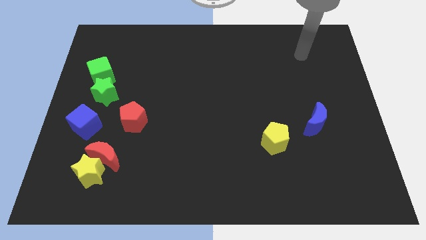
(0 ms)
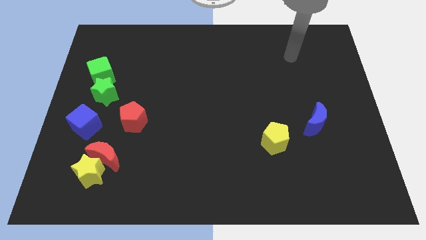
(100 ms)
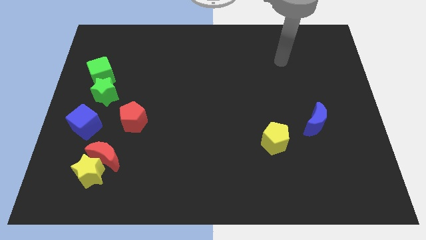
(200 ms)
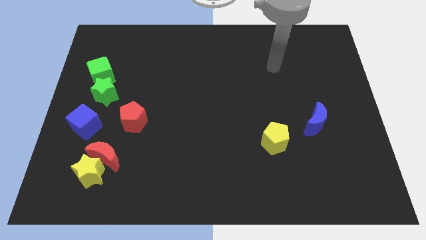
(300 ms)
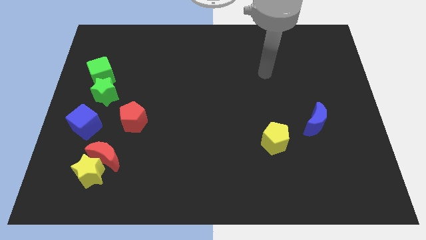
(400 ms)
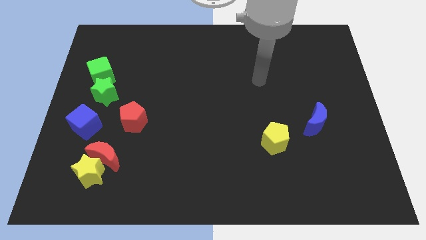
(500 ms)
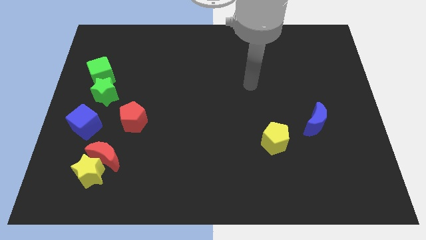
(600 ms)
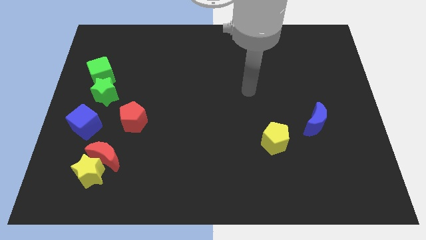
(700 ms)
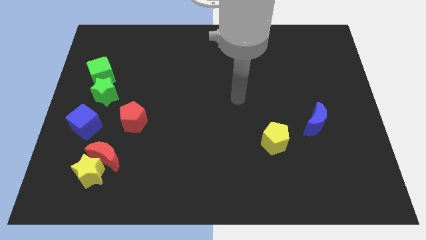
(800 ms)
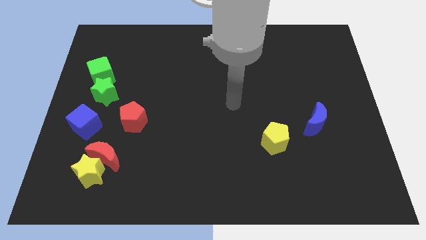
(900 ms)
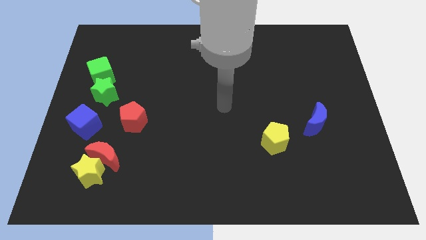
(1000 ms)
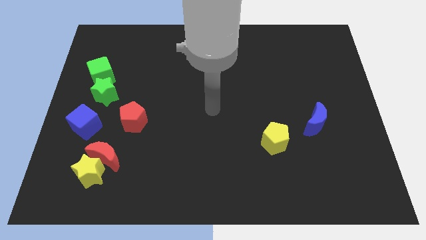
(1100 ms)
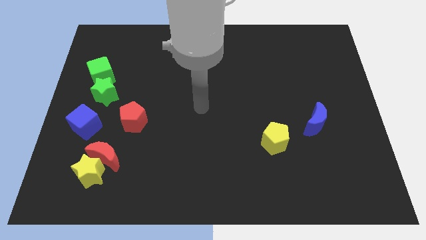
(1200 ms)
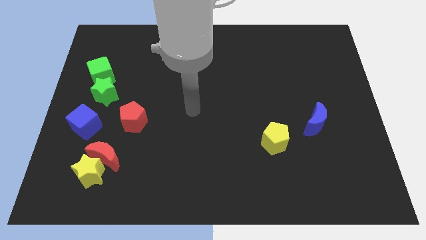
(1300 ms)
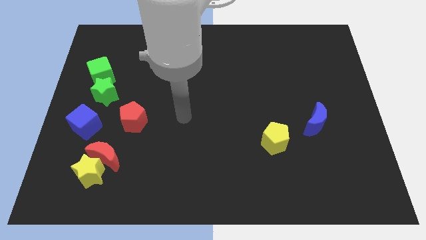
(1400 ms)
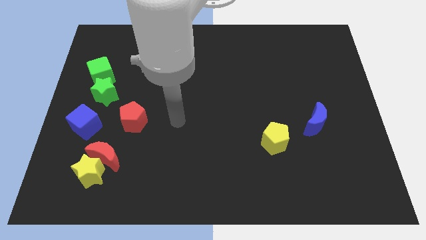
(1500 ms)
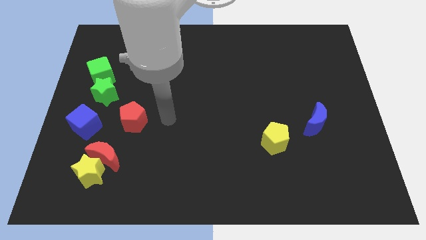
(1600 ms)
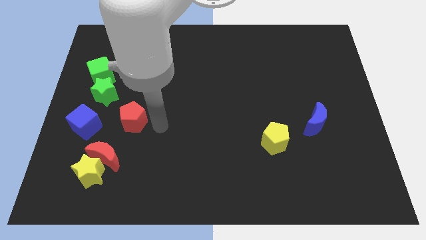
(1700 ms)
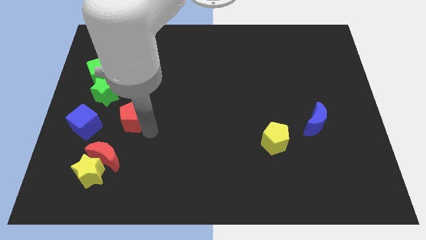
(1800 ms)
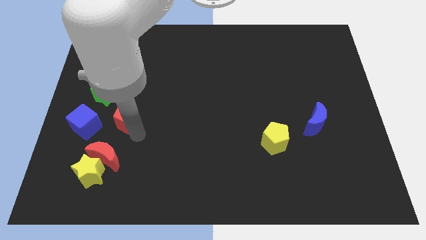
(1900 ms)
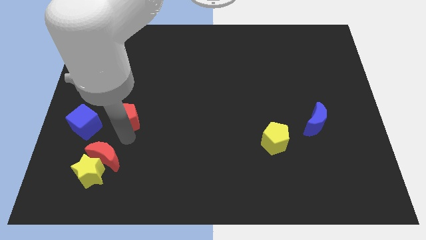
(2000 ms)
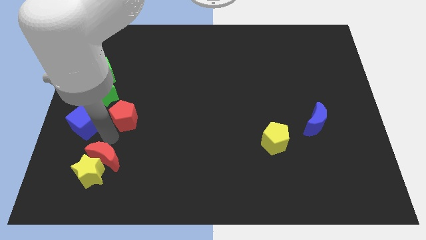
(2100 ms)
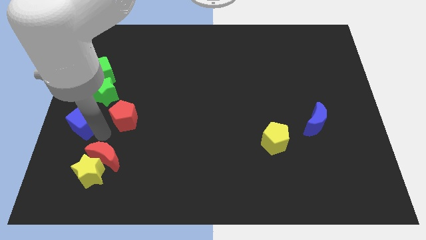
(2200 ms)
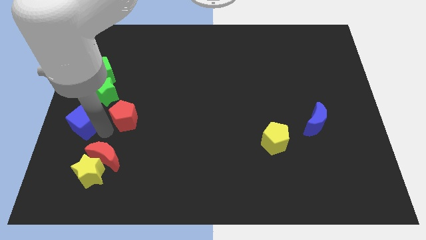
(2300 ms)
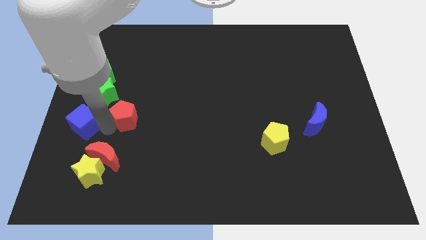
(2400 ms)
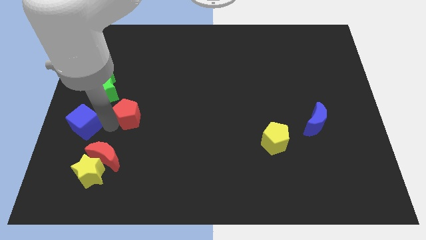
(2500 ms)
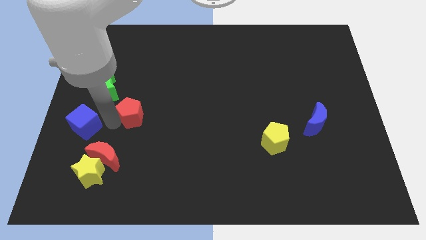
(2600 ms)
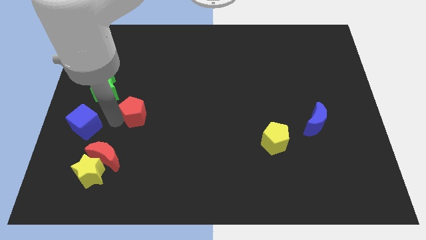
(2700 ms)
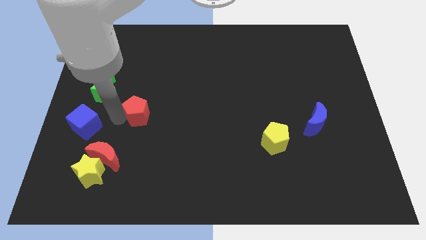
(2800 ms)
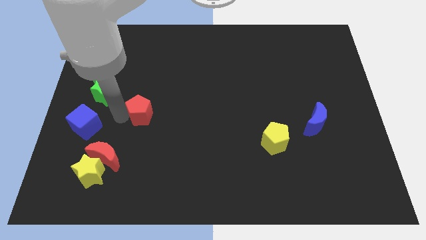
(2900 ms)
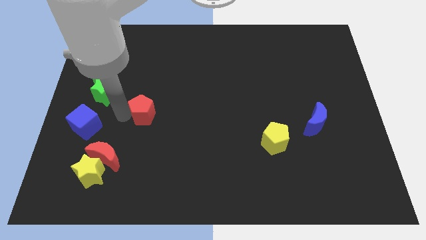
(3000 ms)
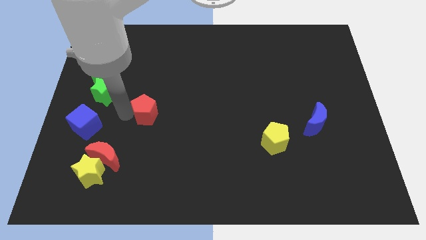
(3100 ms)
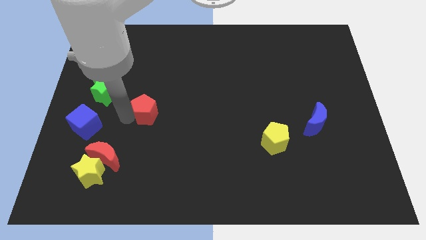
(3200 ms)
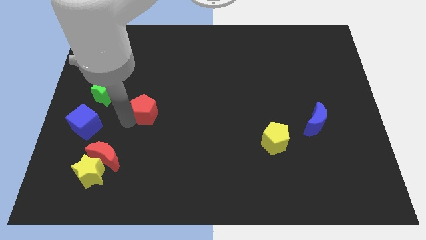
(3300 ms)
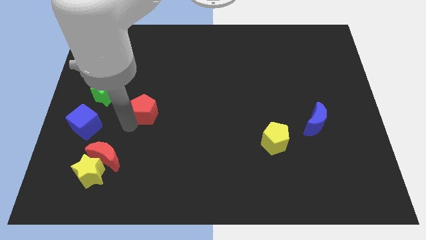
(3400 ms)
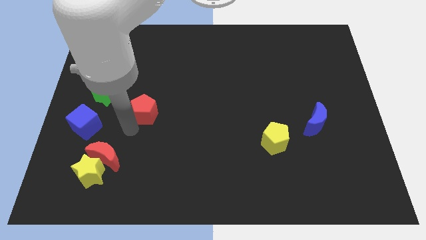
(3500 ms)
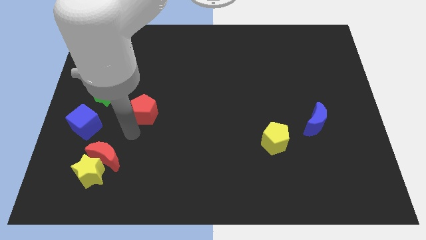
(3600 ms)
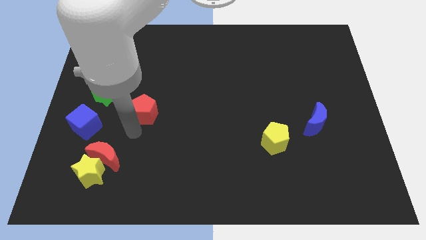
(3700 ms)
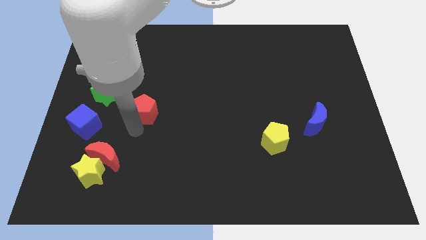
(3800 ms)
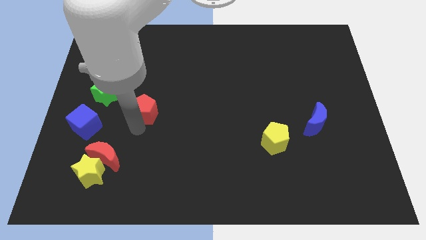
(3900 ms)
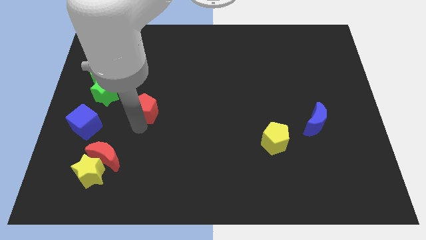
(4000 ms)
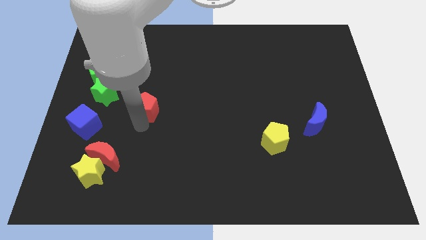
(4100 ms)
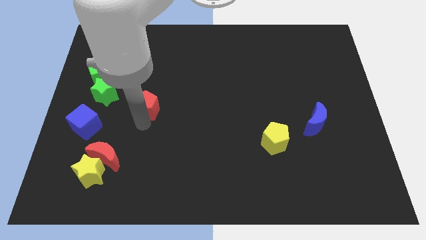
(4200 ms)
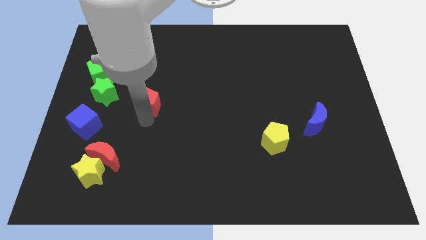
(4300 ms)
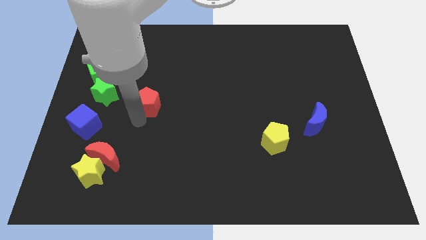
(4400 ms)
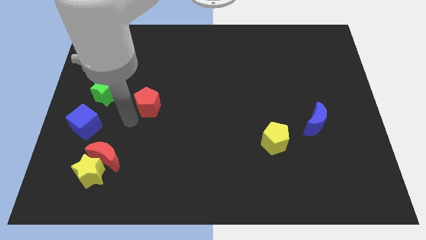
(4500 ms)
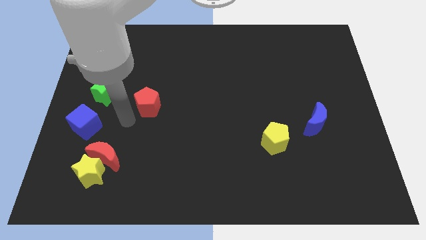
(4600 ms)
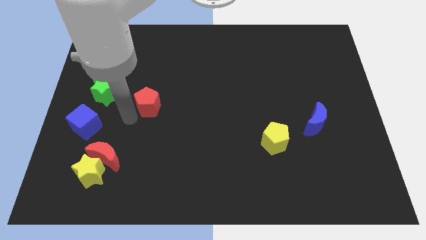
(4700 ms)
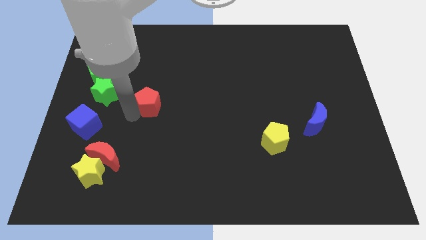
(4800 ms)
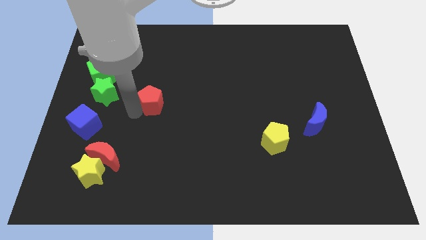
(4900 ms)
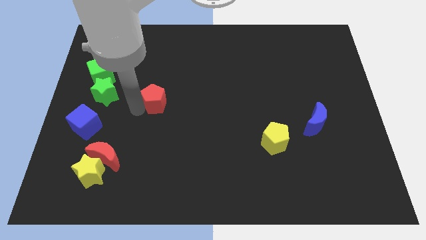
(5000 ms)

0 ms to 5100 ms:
slightly move the red pentagon upwards and right diagonally

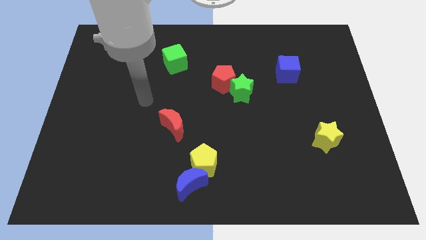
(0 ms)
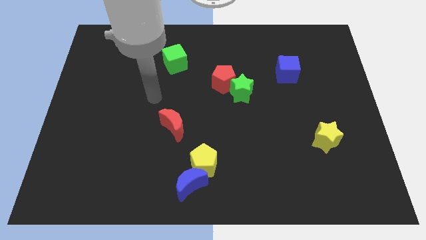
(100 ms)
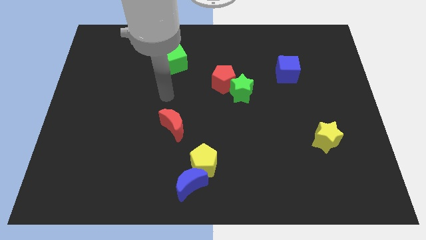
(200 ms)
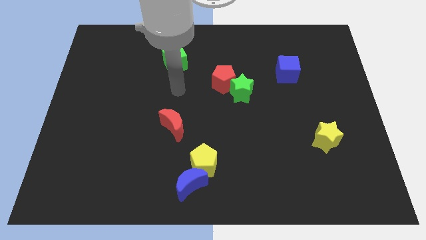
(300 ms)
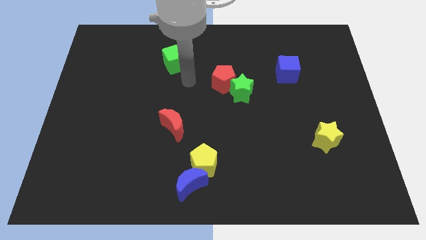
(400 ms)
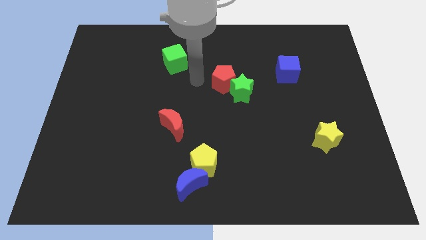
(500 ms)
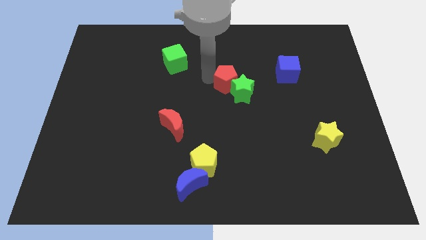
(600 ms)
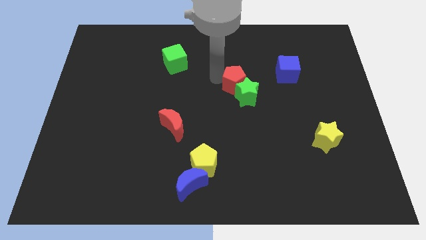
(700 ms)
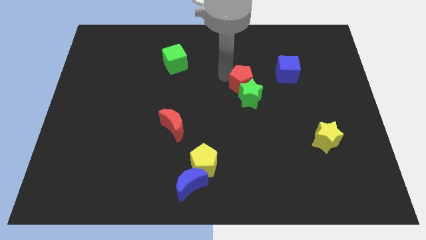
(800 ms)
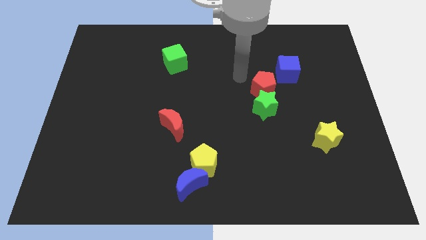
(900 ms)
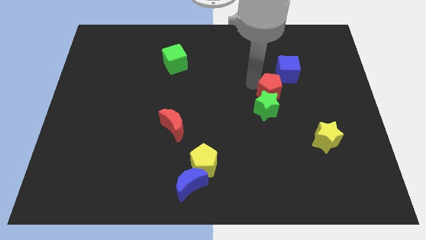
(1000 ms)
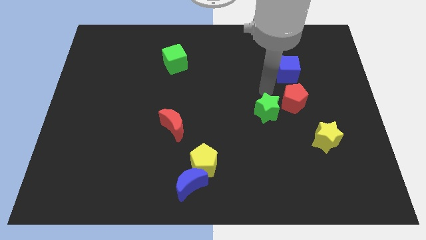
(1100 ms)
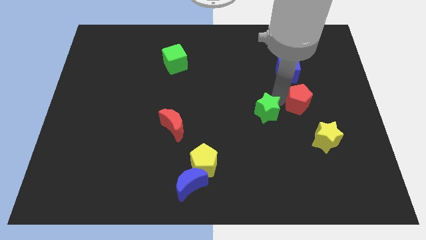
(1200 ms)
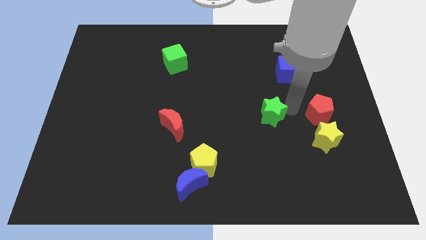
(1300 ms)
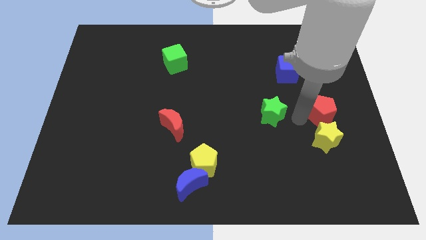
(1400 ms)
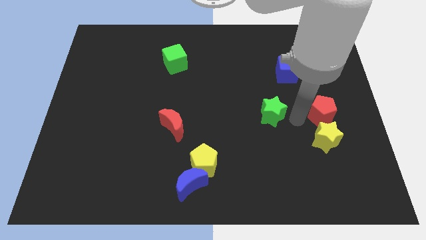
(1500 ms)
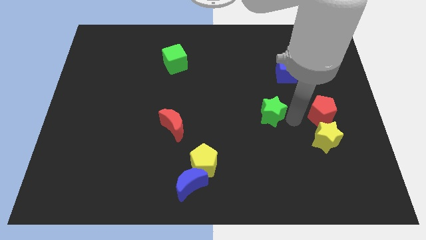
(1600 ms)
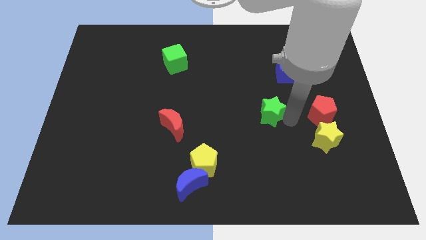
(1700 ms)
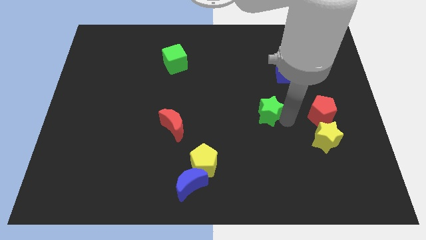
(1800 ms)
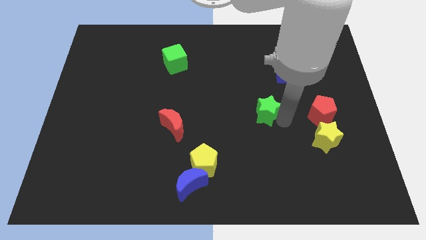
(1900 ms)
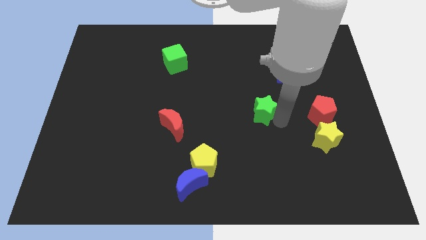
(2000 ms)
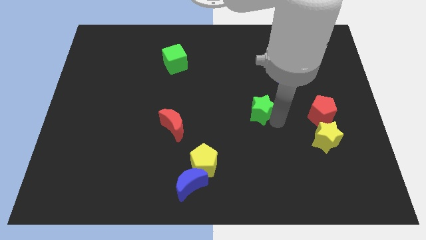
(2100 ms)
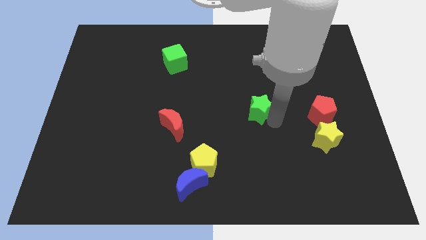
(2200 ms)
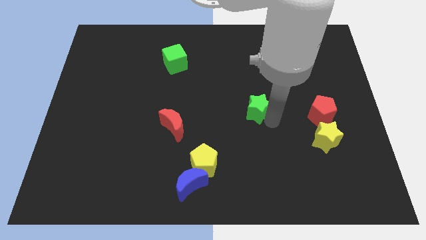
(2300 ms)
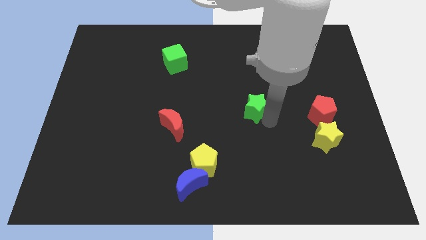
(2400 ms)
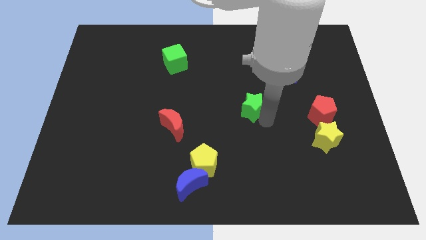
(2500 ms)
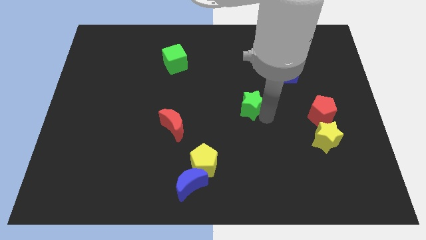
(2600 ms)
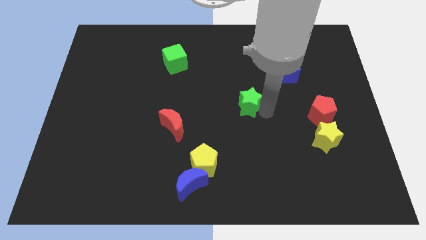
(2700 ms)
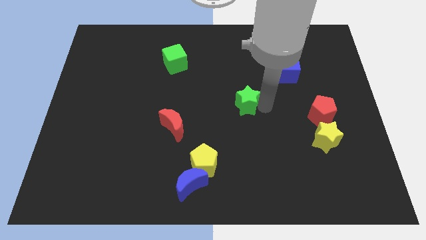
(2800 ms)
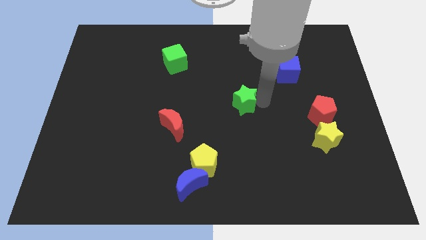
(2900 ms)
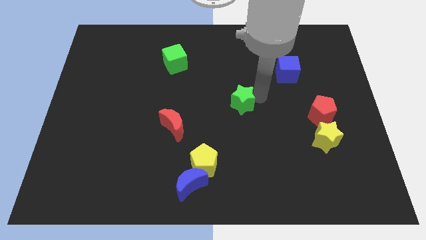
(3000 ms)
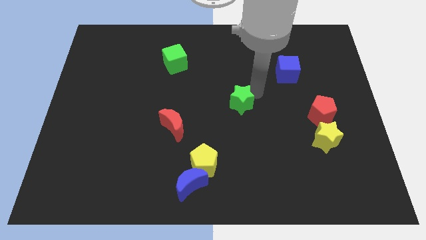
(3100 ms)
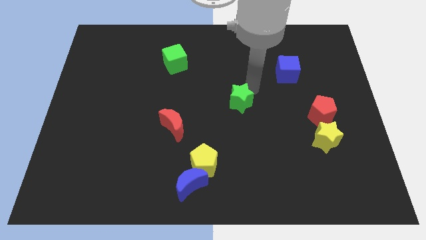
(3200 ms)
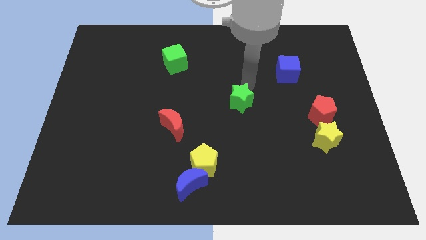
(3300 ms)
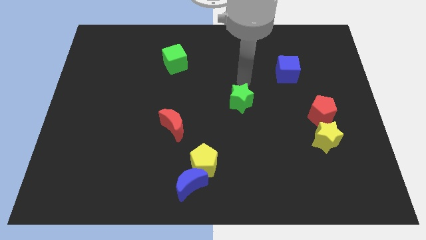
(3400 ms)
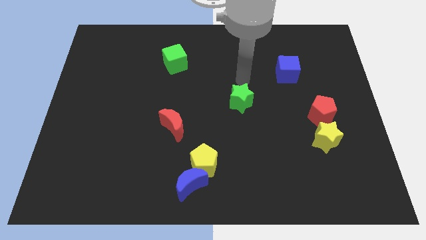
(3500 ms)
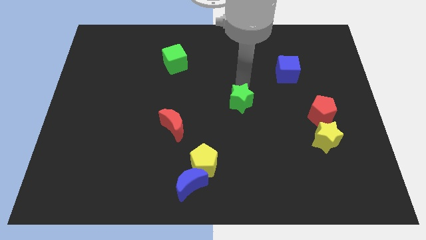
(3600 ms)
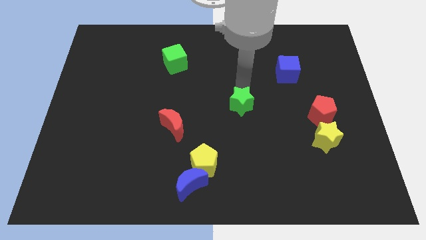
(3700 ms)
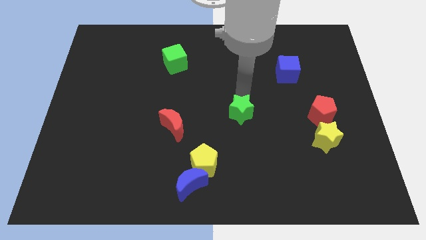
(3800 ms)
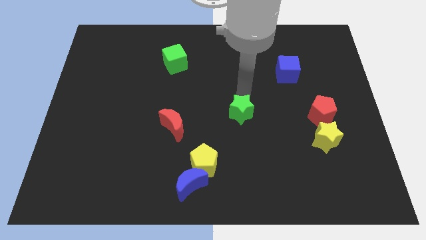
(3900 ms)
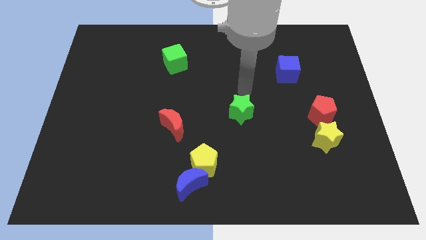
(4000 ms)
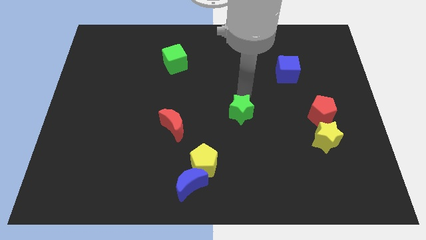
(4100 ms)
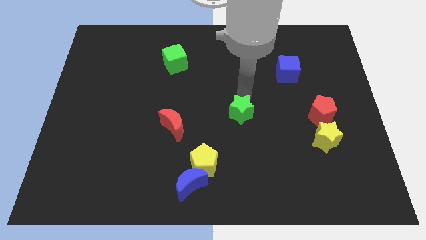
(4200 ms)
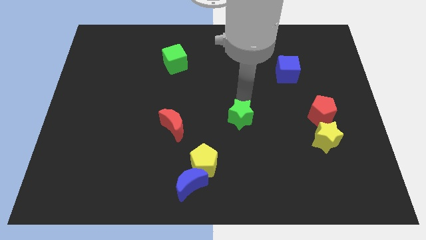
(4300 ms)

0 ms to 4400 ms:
push the green star downwards somewhat
